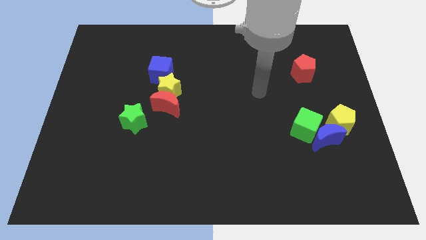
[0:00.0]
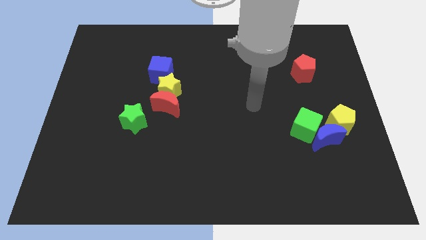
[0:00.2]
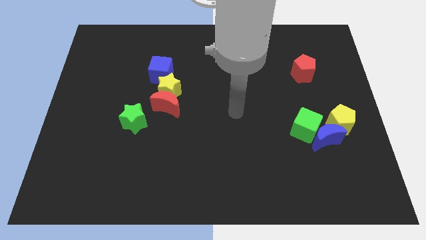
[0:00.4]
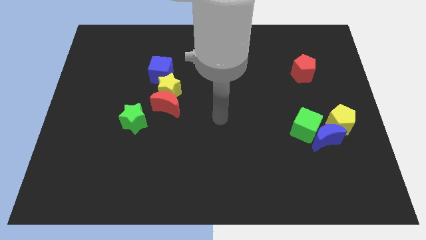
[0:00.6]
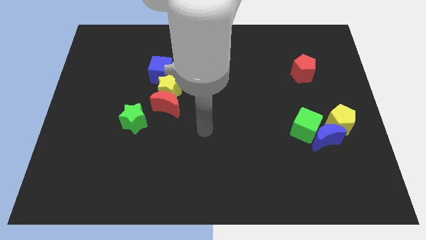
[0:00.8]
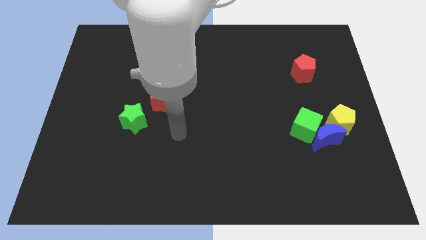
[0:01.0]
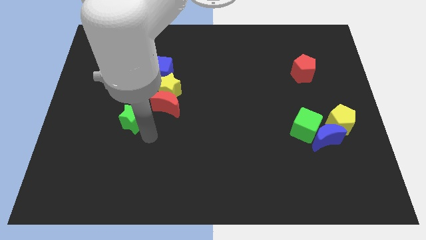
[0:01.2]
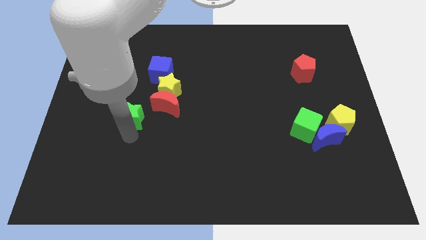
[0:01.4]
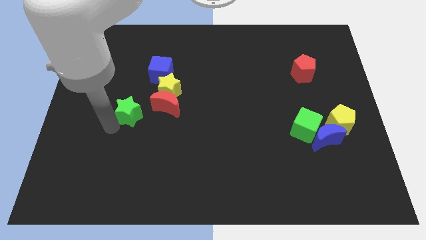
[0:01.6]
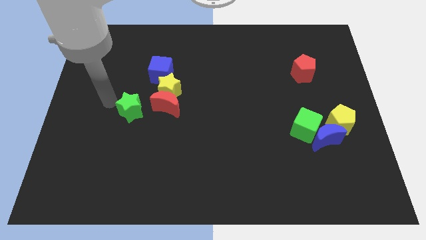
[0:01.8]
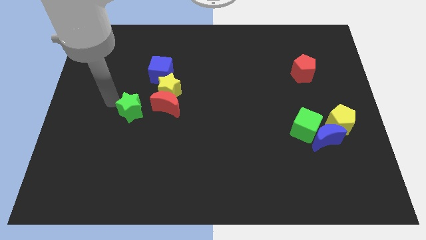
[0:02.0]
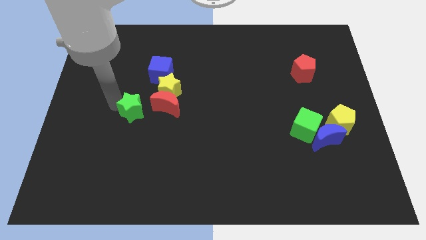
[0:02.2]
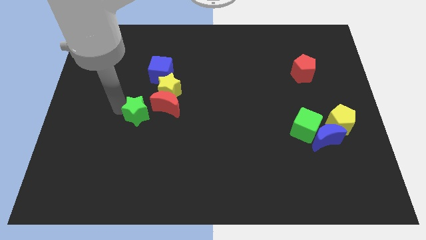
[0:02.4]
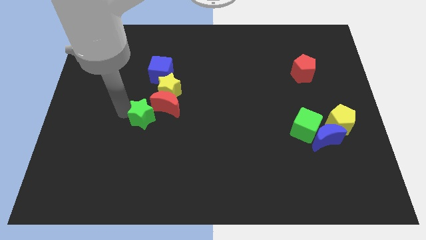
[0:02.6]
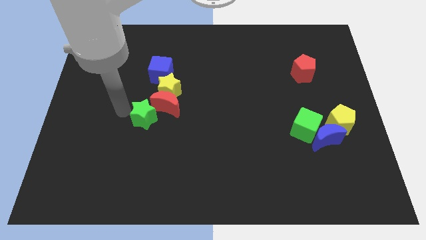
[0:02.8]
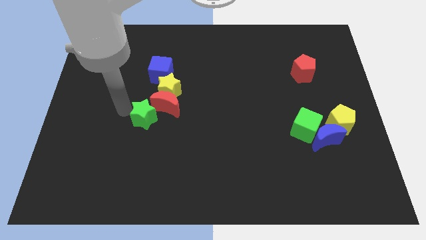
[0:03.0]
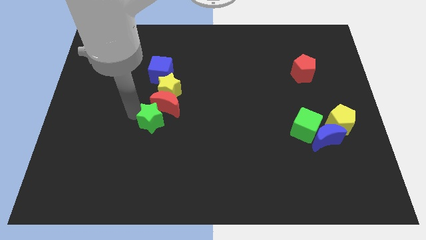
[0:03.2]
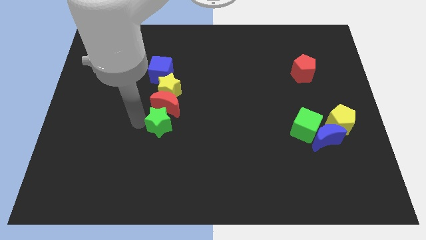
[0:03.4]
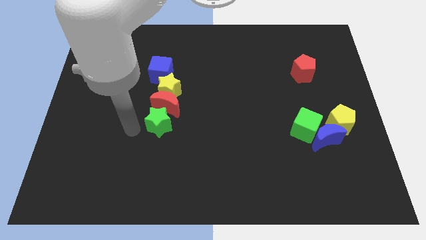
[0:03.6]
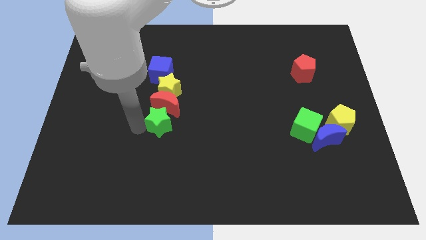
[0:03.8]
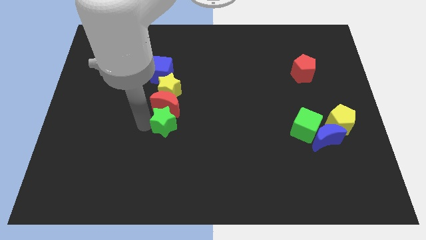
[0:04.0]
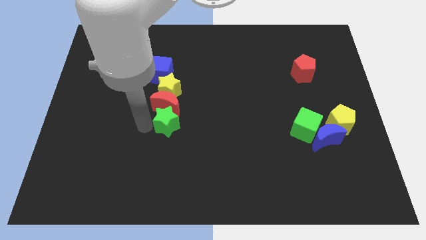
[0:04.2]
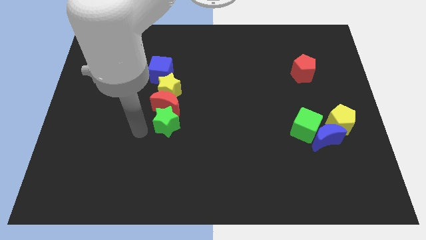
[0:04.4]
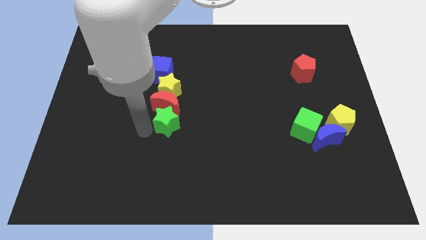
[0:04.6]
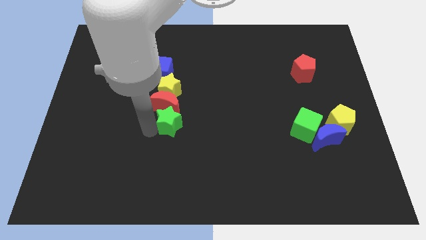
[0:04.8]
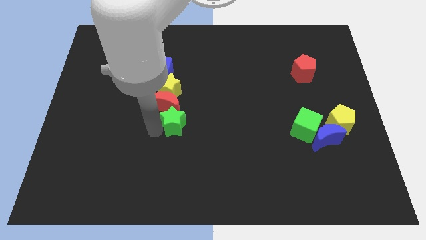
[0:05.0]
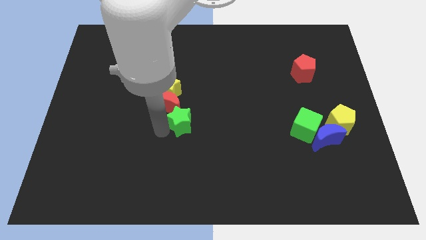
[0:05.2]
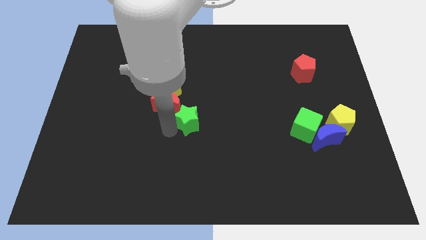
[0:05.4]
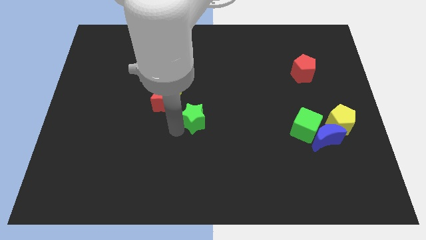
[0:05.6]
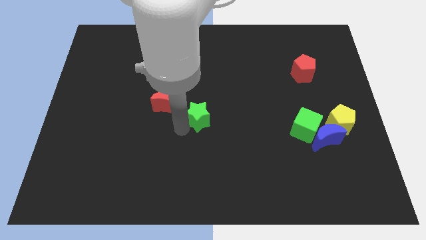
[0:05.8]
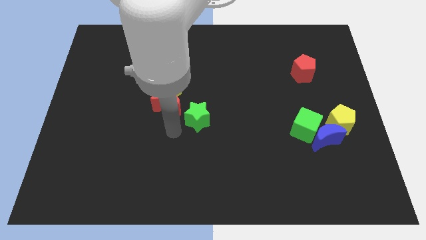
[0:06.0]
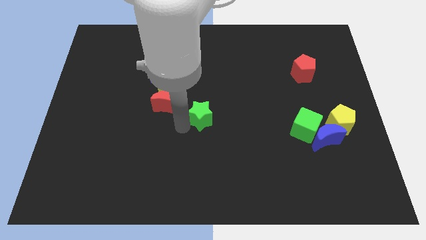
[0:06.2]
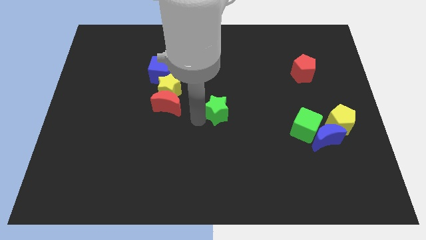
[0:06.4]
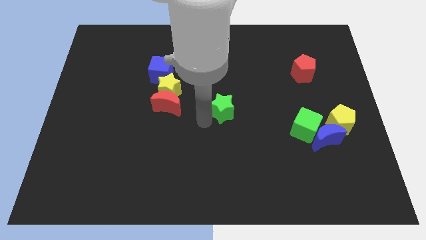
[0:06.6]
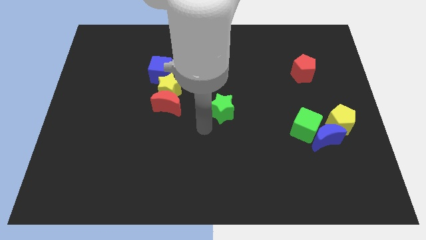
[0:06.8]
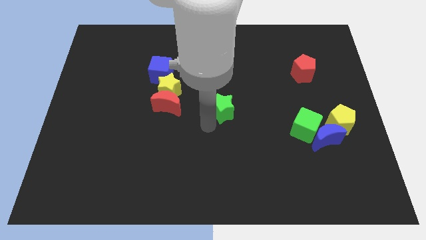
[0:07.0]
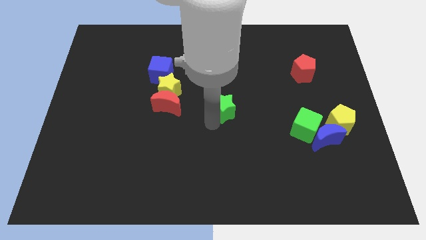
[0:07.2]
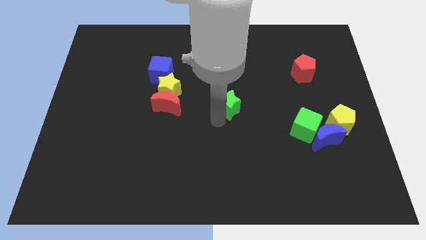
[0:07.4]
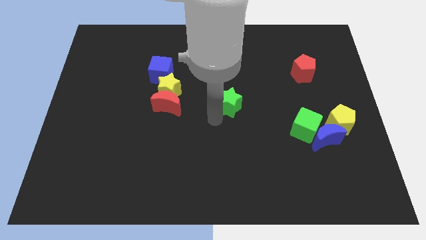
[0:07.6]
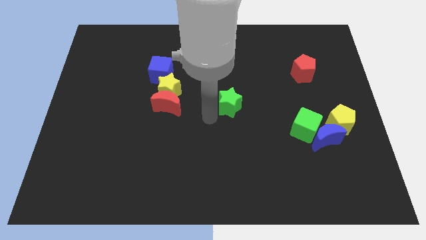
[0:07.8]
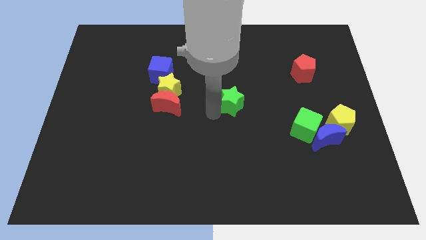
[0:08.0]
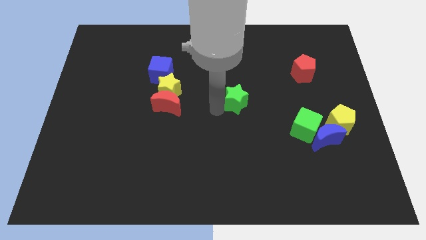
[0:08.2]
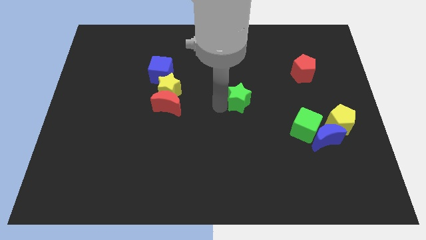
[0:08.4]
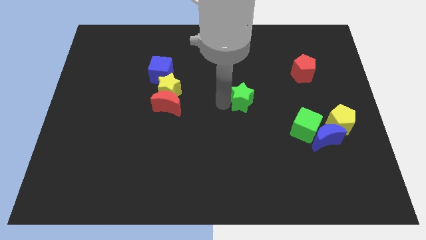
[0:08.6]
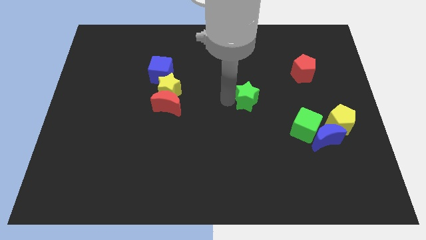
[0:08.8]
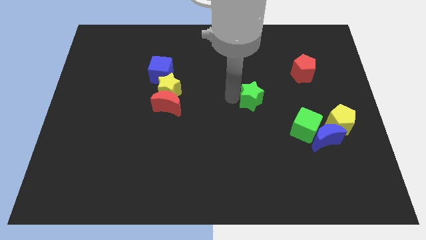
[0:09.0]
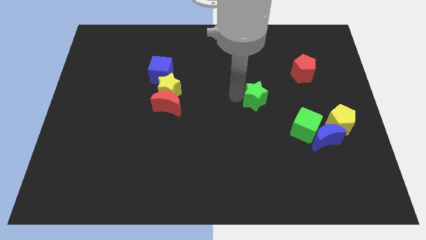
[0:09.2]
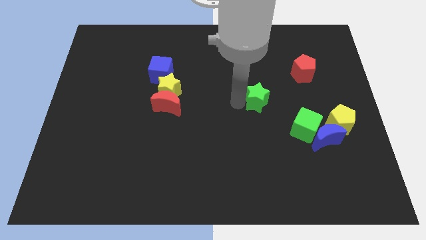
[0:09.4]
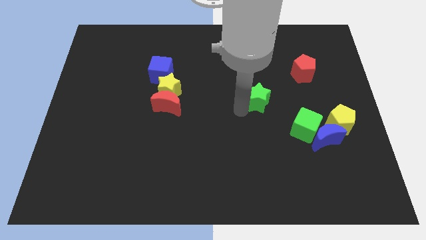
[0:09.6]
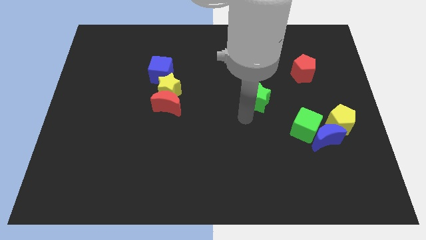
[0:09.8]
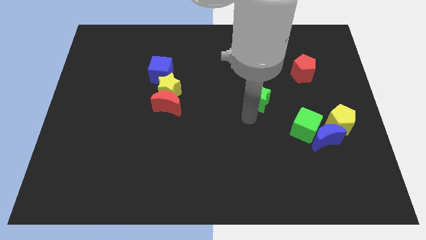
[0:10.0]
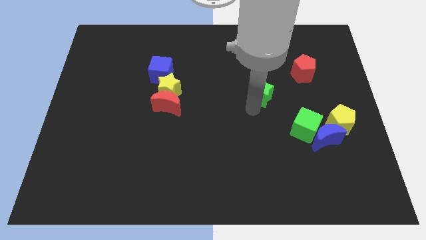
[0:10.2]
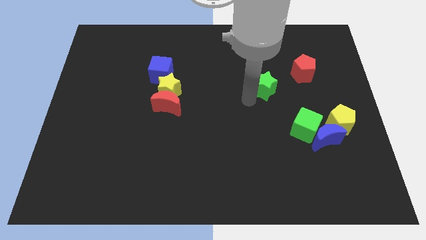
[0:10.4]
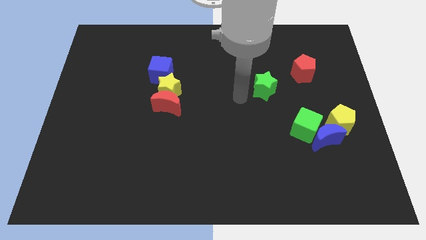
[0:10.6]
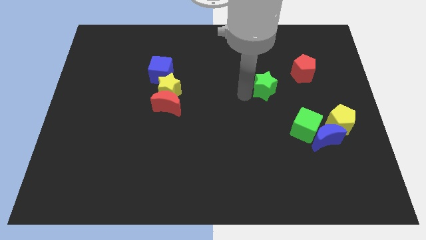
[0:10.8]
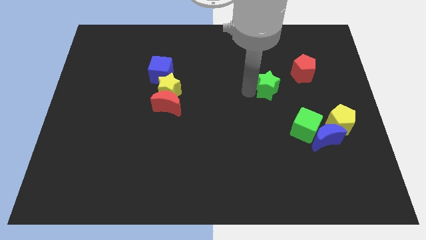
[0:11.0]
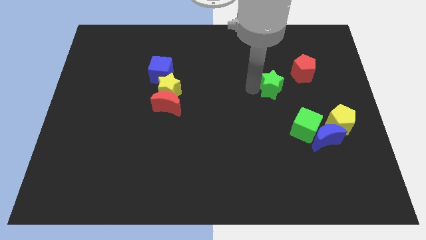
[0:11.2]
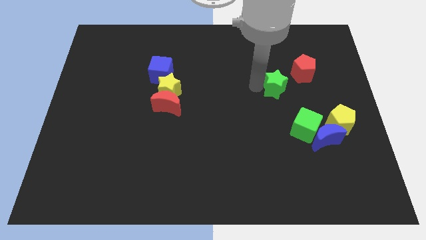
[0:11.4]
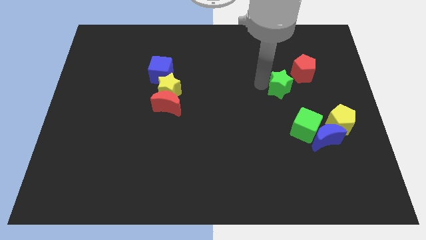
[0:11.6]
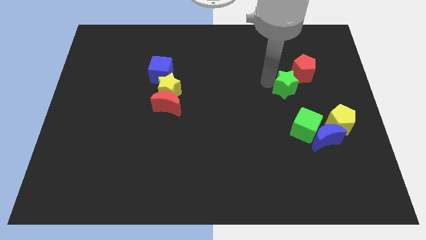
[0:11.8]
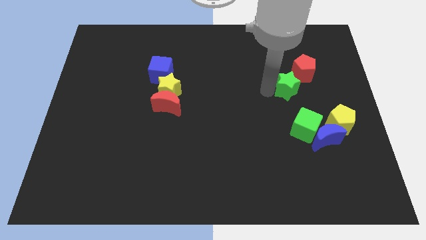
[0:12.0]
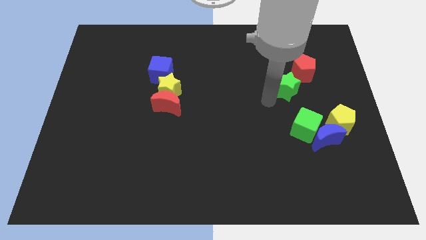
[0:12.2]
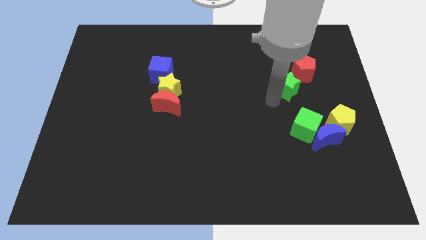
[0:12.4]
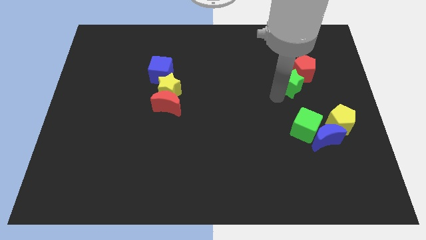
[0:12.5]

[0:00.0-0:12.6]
move the green star close to the red pentagon

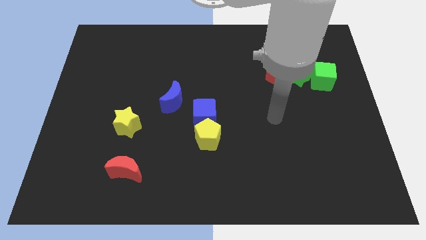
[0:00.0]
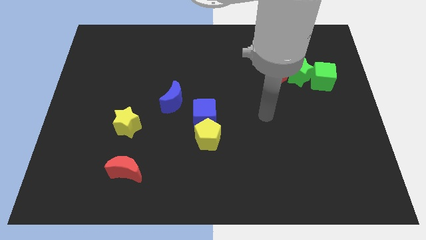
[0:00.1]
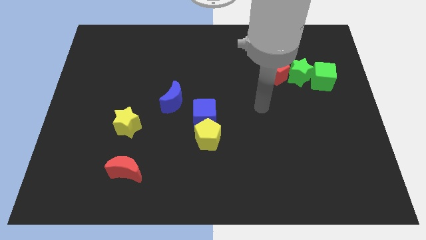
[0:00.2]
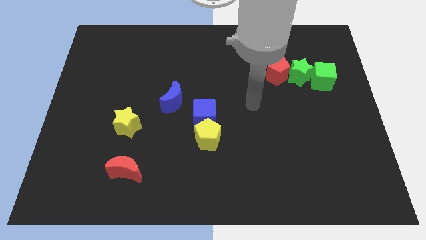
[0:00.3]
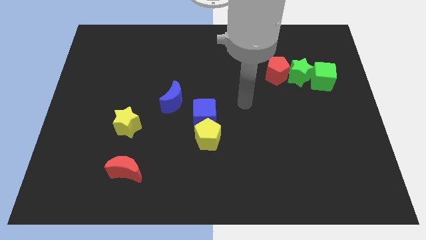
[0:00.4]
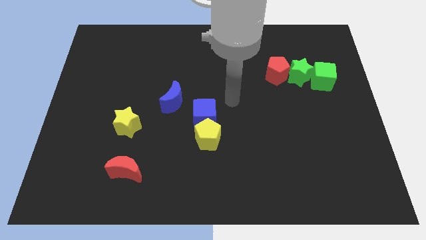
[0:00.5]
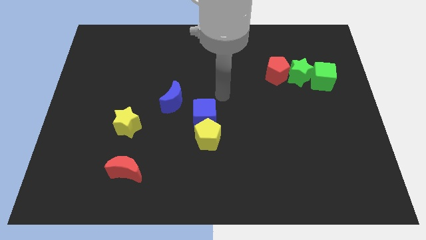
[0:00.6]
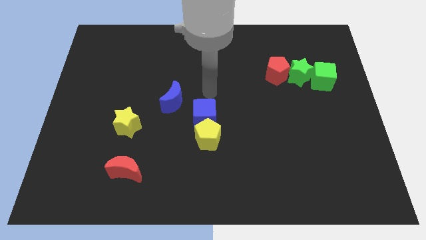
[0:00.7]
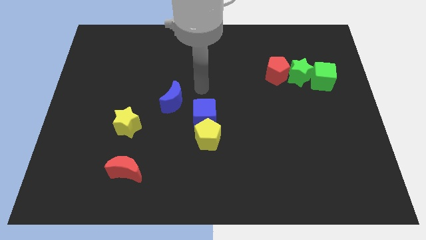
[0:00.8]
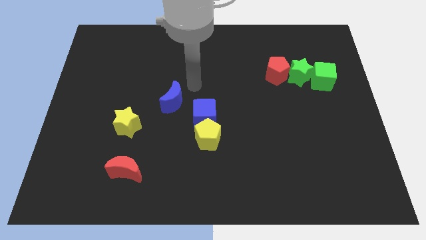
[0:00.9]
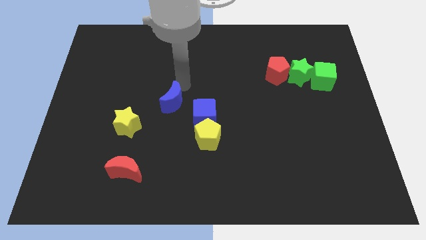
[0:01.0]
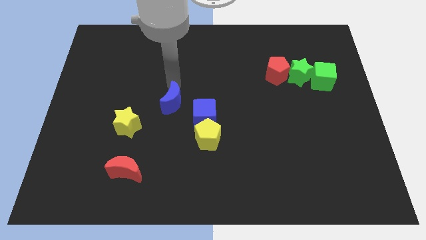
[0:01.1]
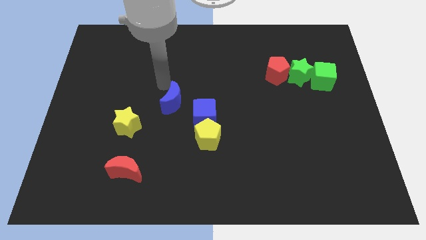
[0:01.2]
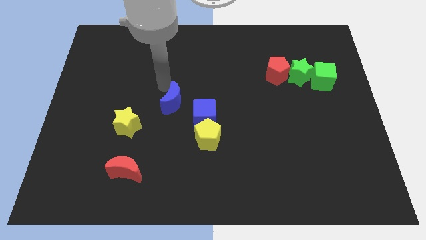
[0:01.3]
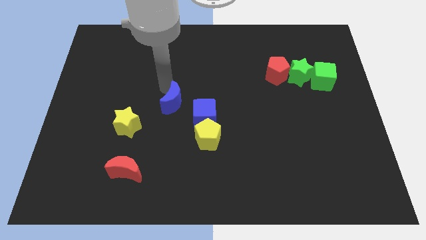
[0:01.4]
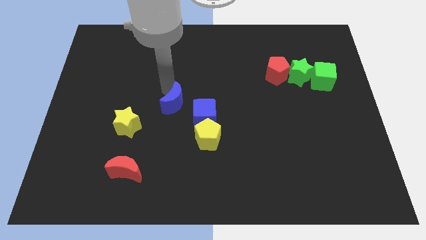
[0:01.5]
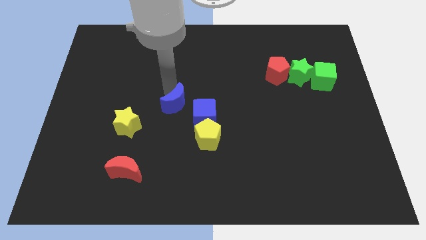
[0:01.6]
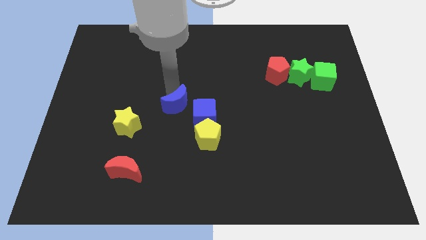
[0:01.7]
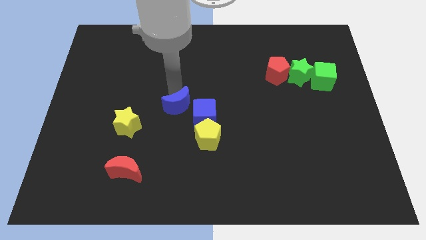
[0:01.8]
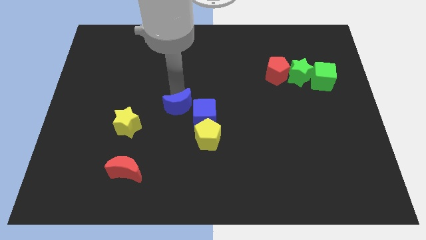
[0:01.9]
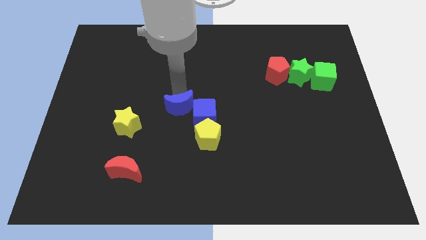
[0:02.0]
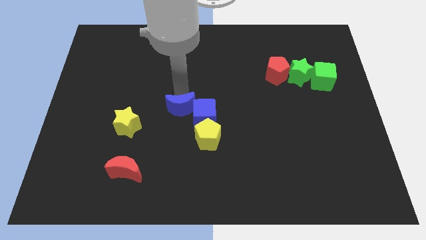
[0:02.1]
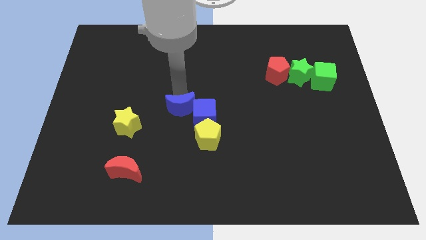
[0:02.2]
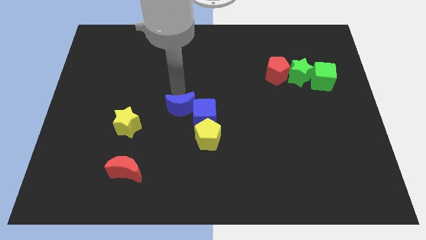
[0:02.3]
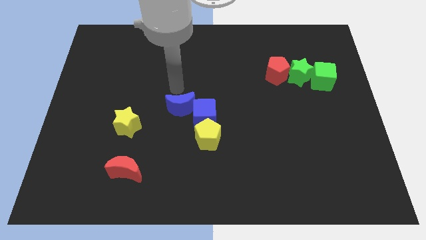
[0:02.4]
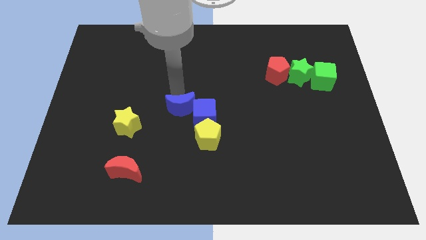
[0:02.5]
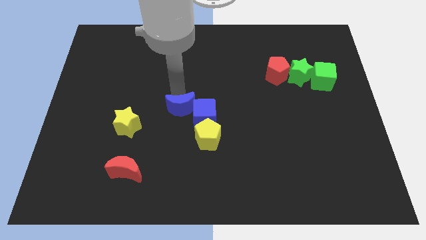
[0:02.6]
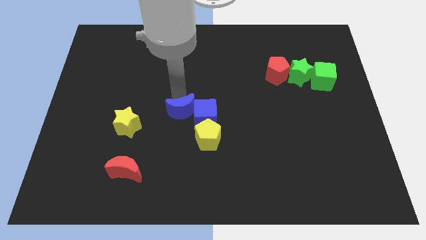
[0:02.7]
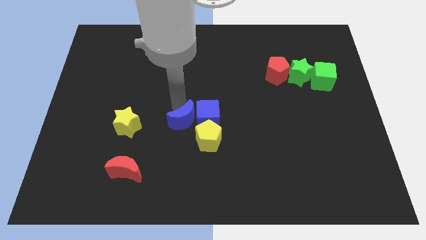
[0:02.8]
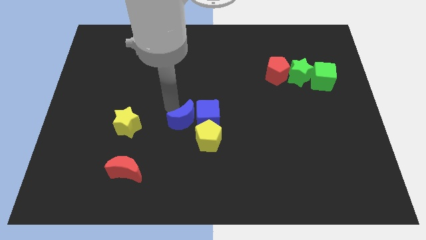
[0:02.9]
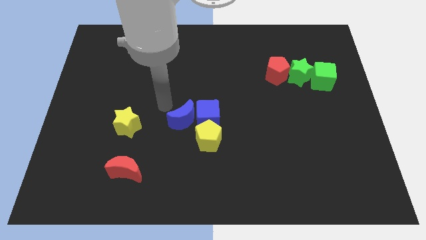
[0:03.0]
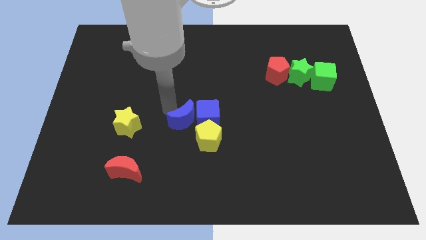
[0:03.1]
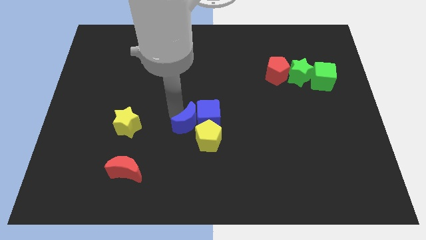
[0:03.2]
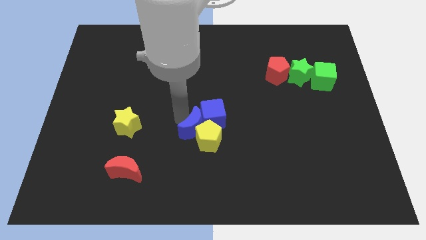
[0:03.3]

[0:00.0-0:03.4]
slide the blue moon close to the yellow pentagon
